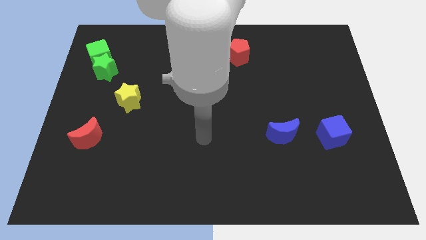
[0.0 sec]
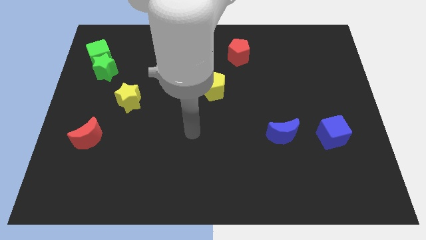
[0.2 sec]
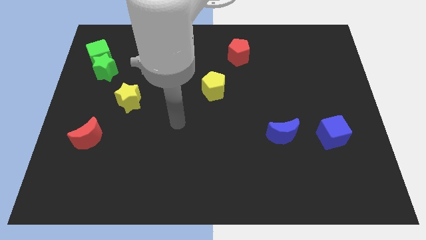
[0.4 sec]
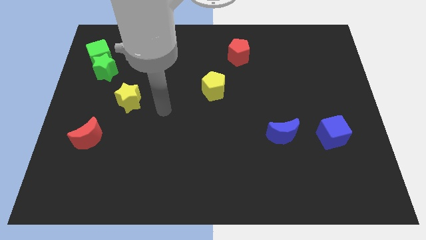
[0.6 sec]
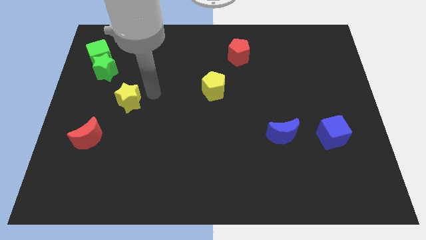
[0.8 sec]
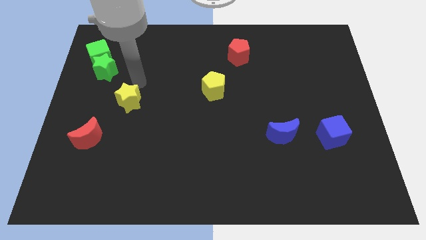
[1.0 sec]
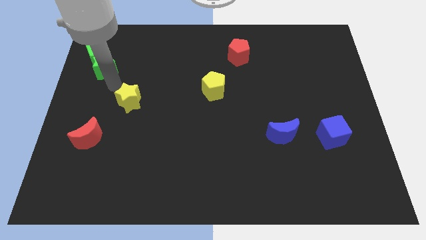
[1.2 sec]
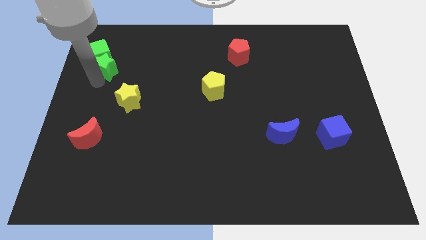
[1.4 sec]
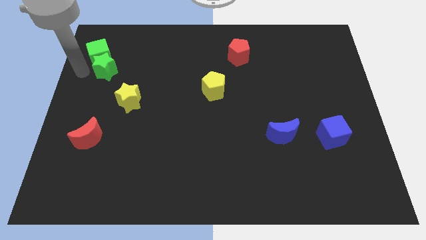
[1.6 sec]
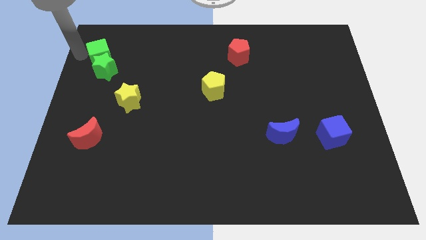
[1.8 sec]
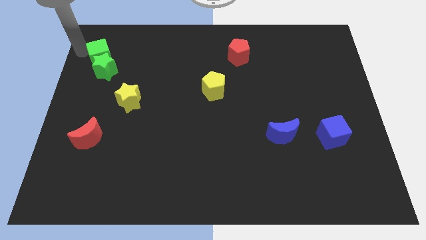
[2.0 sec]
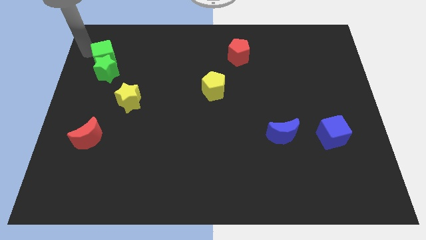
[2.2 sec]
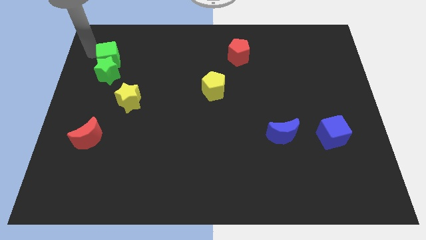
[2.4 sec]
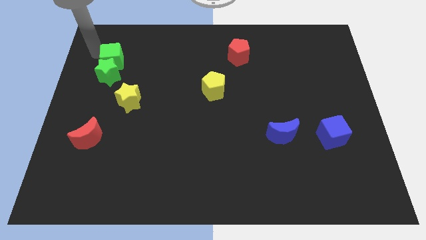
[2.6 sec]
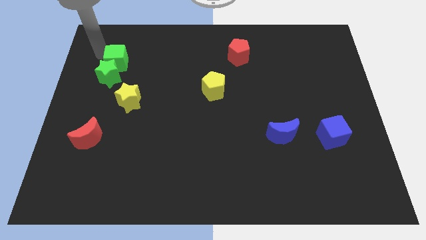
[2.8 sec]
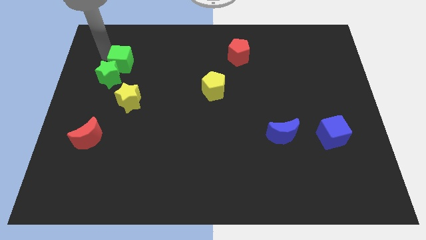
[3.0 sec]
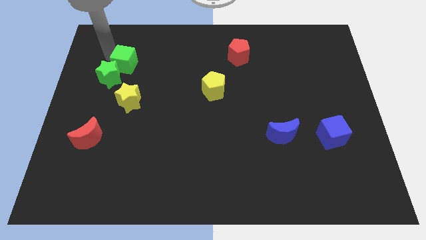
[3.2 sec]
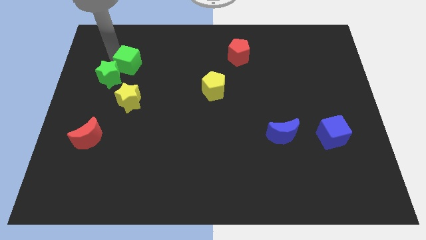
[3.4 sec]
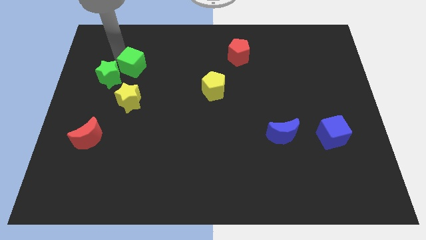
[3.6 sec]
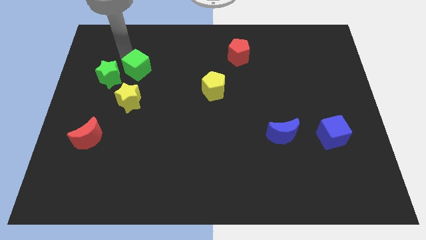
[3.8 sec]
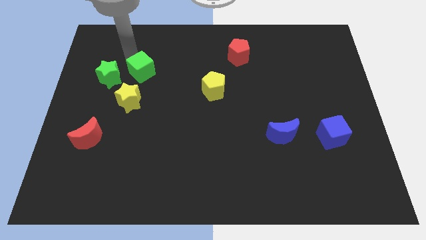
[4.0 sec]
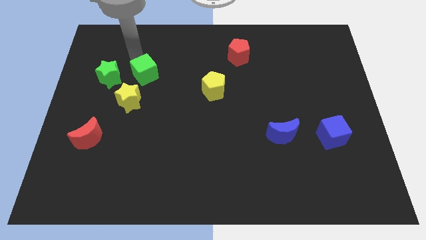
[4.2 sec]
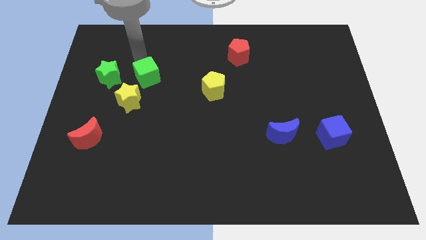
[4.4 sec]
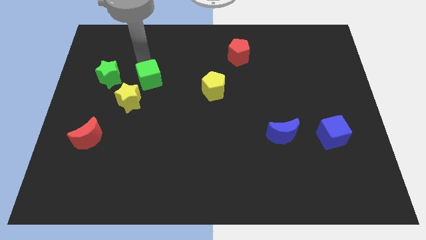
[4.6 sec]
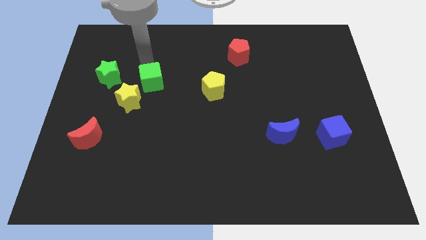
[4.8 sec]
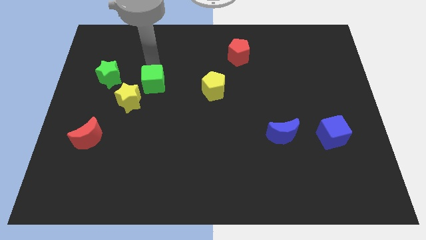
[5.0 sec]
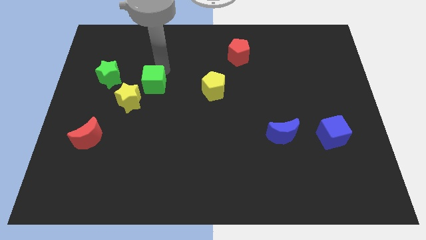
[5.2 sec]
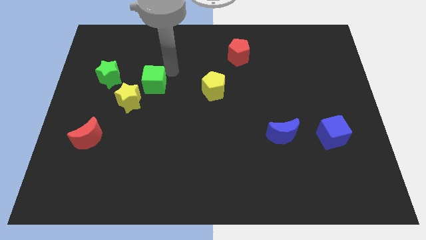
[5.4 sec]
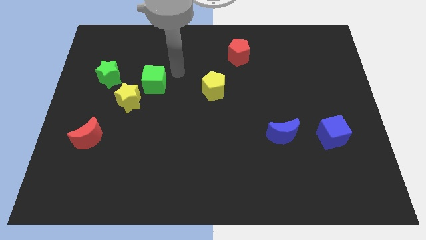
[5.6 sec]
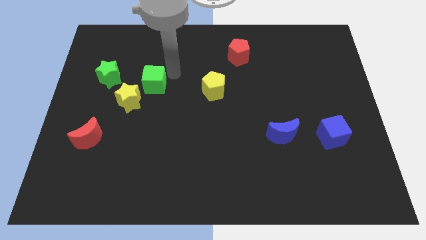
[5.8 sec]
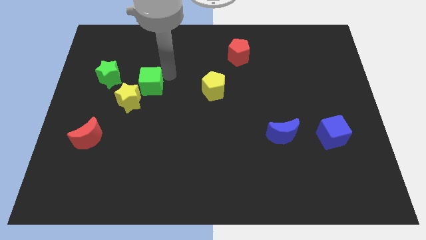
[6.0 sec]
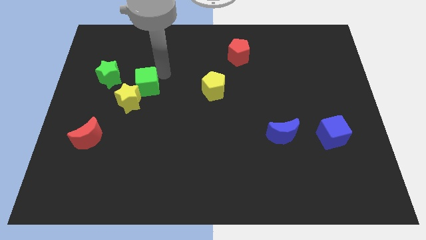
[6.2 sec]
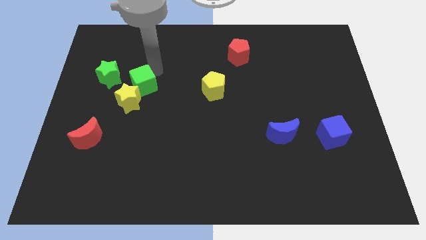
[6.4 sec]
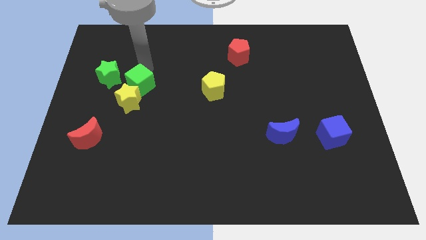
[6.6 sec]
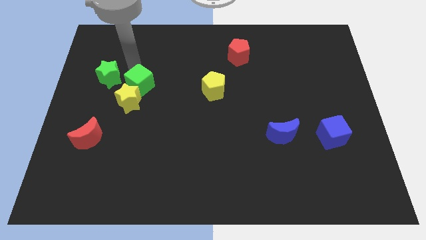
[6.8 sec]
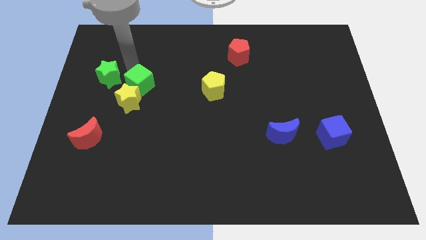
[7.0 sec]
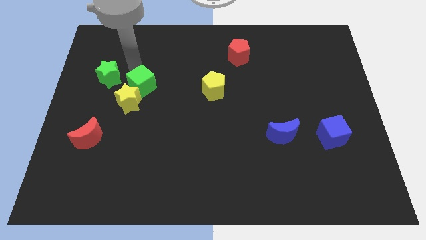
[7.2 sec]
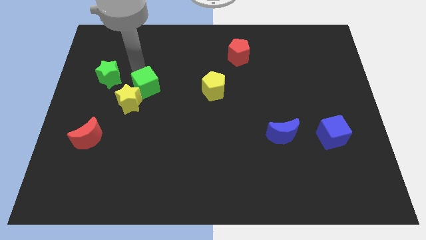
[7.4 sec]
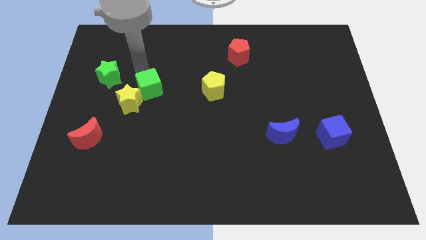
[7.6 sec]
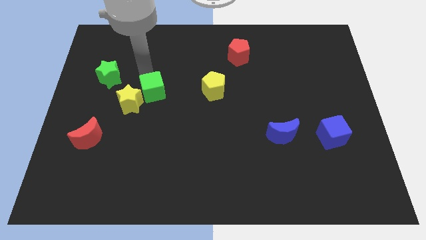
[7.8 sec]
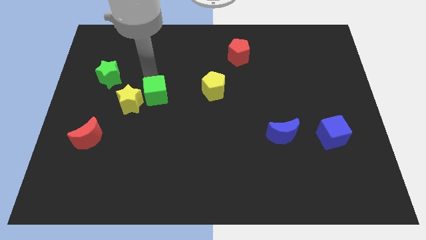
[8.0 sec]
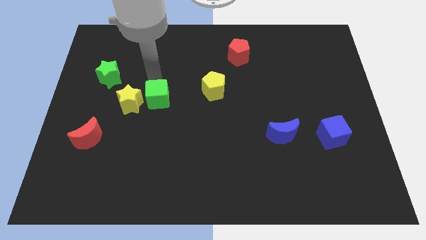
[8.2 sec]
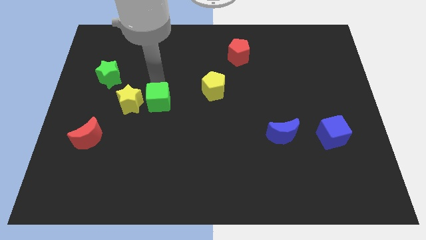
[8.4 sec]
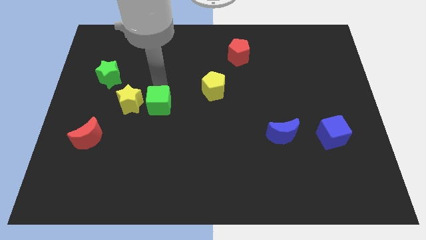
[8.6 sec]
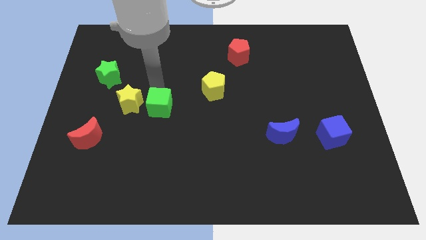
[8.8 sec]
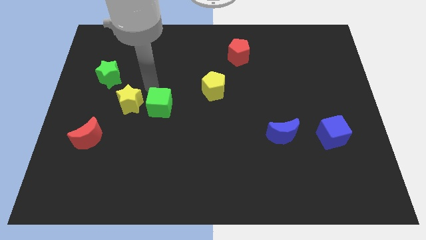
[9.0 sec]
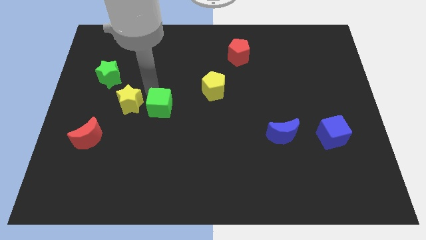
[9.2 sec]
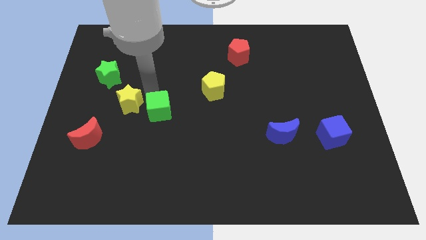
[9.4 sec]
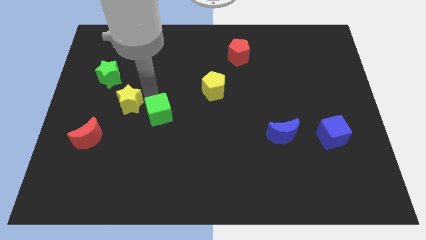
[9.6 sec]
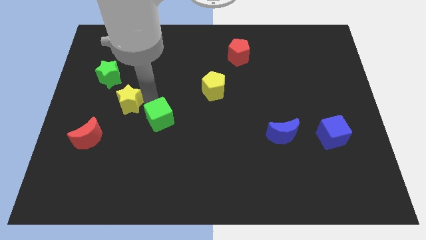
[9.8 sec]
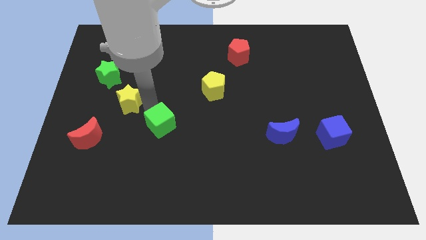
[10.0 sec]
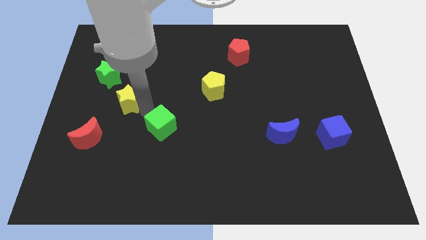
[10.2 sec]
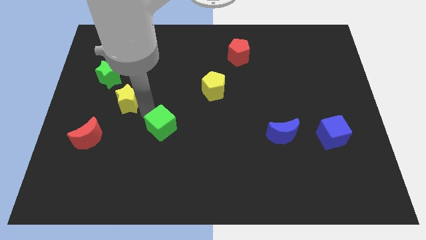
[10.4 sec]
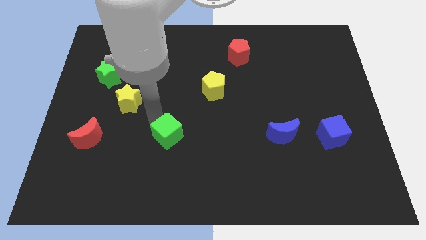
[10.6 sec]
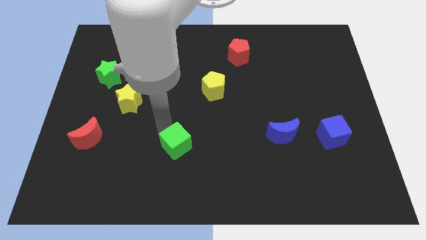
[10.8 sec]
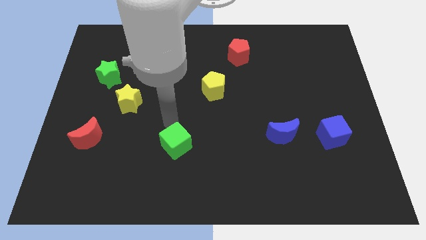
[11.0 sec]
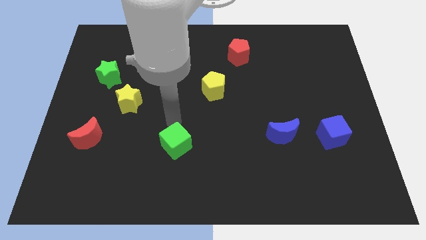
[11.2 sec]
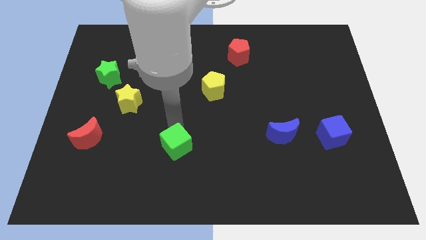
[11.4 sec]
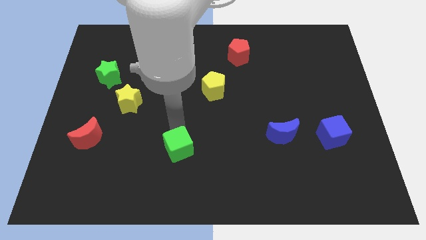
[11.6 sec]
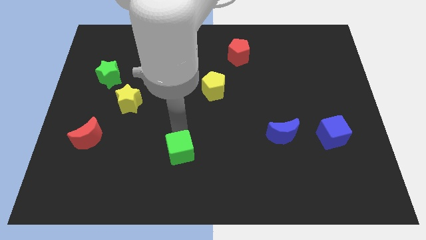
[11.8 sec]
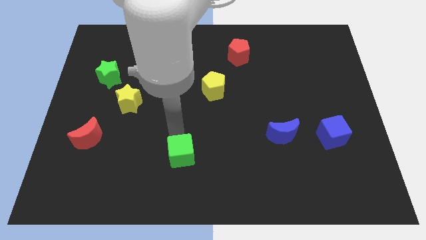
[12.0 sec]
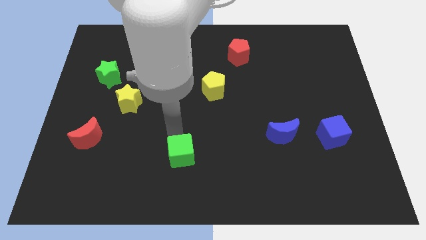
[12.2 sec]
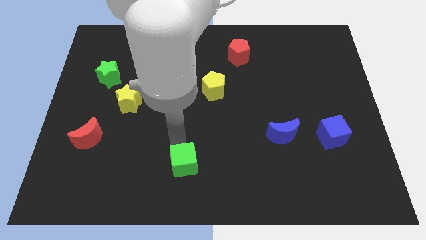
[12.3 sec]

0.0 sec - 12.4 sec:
slide the green cube to the bottom
